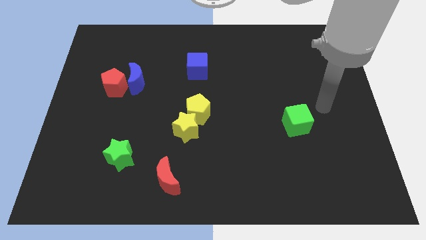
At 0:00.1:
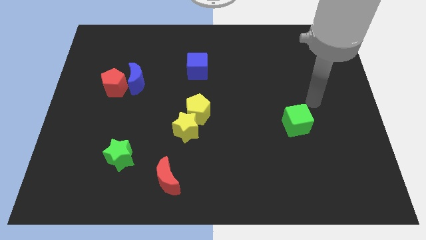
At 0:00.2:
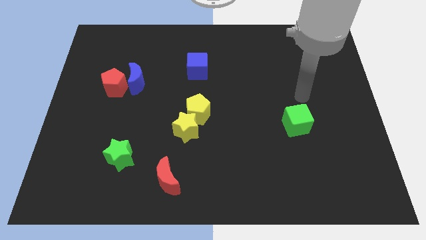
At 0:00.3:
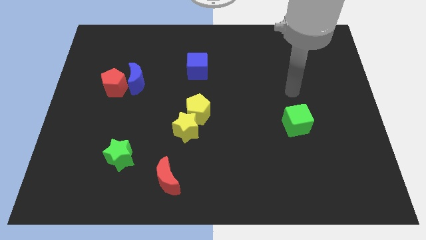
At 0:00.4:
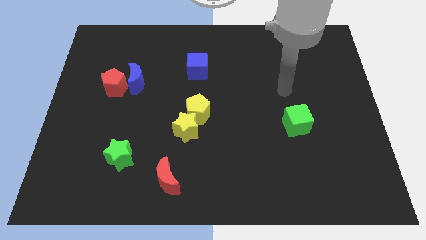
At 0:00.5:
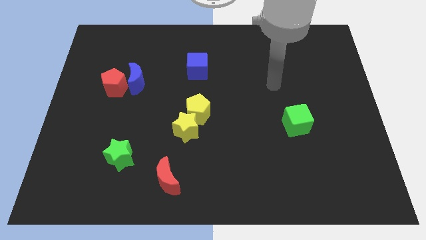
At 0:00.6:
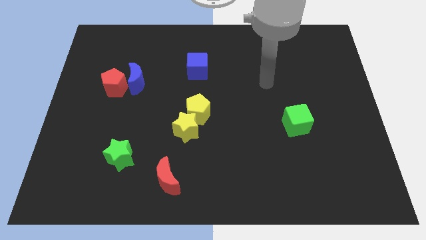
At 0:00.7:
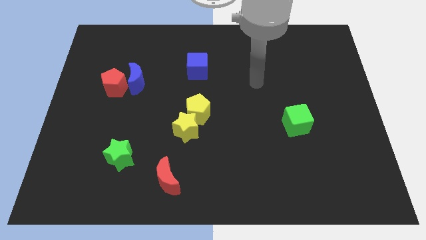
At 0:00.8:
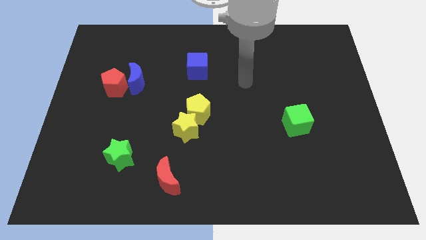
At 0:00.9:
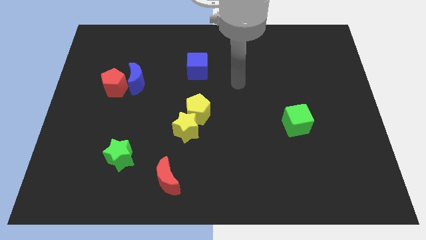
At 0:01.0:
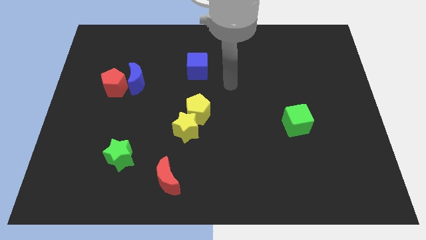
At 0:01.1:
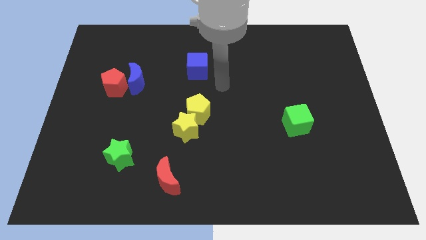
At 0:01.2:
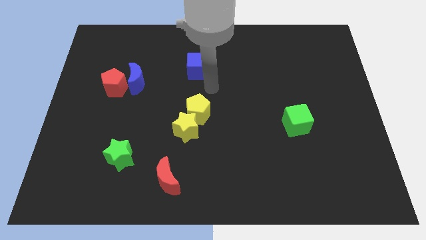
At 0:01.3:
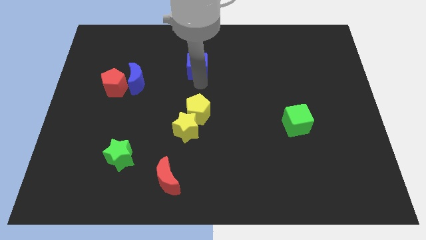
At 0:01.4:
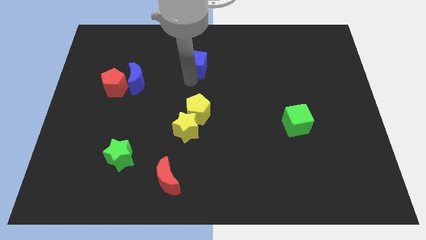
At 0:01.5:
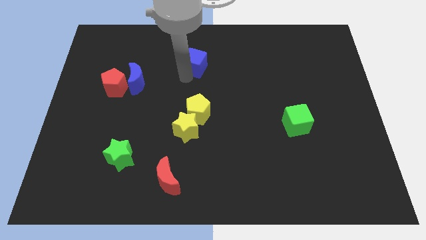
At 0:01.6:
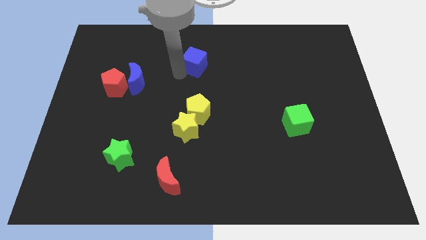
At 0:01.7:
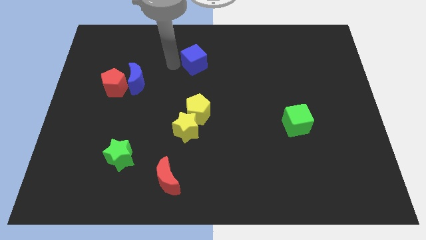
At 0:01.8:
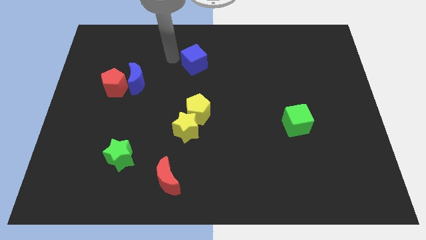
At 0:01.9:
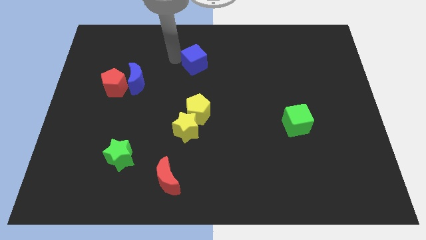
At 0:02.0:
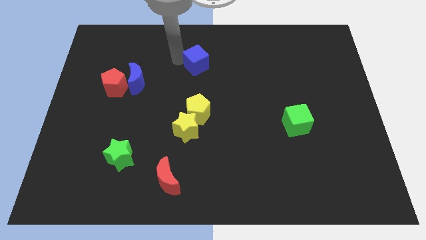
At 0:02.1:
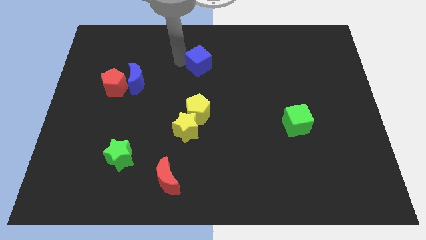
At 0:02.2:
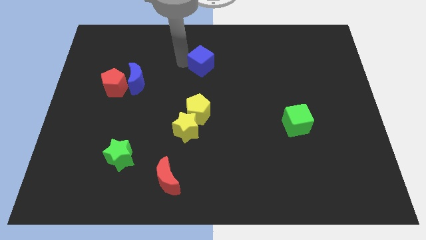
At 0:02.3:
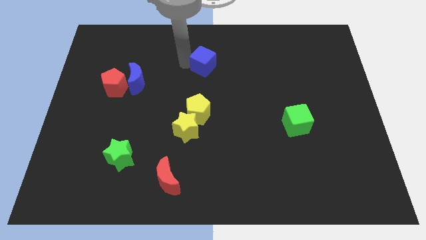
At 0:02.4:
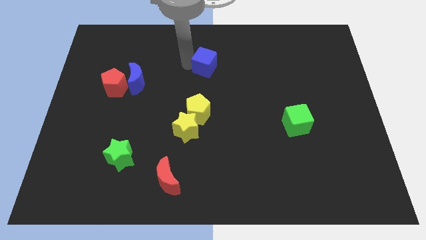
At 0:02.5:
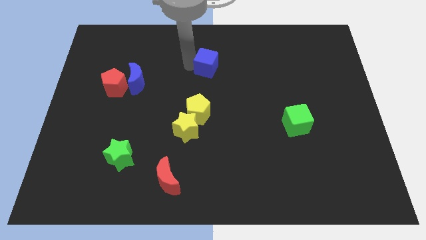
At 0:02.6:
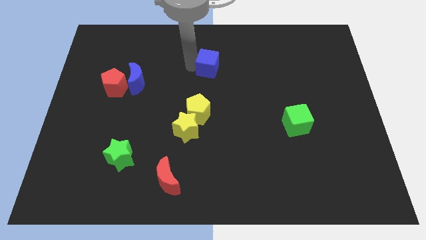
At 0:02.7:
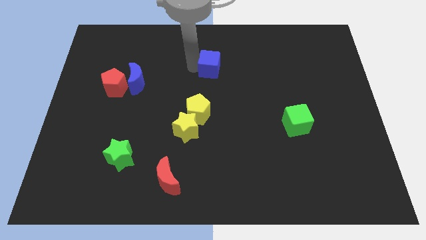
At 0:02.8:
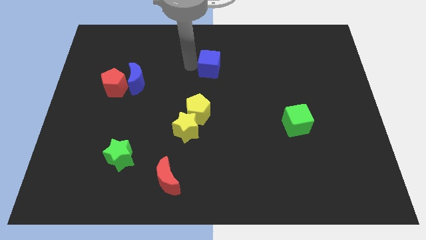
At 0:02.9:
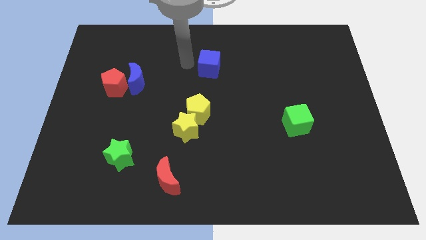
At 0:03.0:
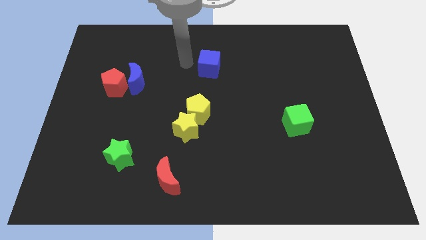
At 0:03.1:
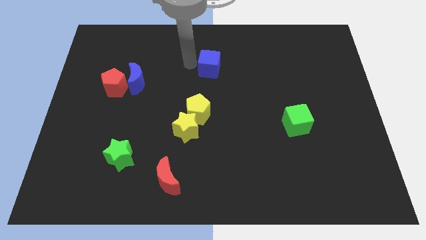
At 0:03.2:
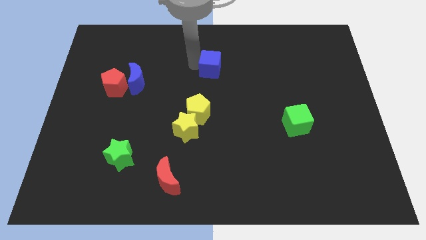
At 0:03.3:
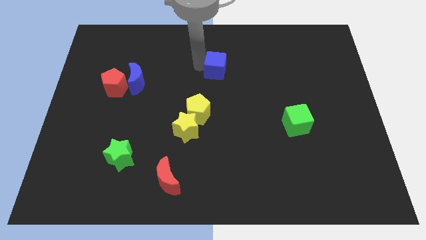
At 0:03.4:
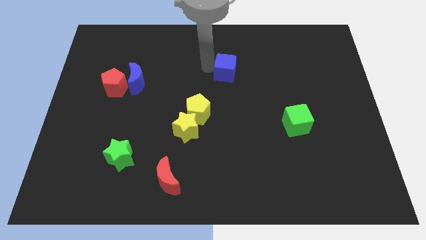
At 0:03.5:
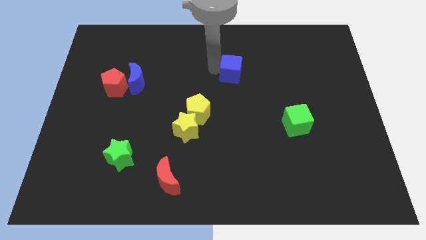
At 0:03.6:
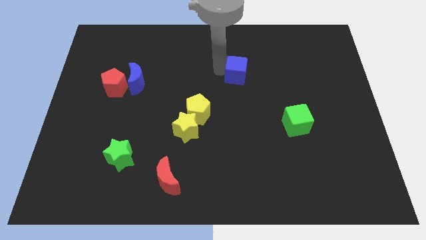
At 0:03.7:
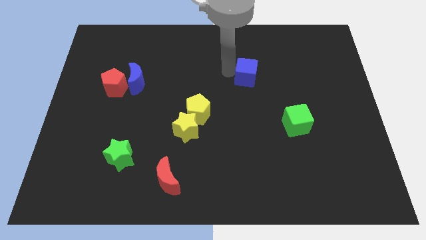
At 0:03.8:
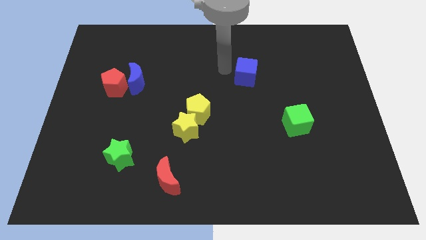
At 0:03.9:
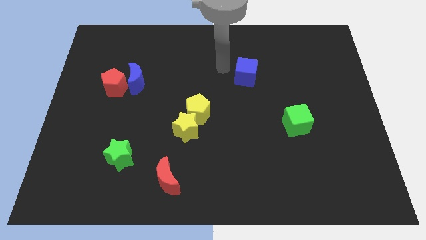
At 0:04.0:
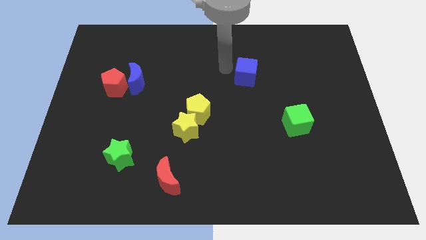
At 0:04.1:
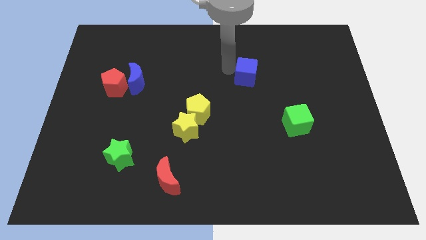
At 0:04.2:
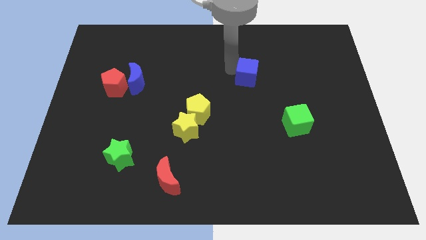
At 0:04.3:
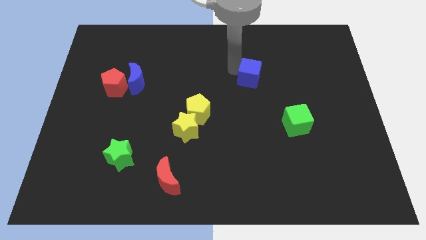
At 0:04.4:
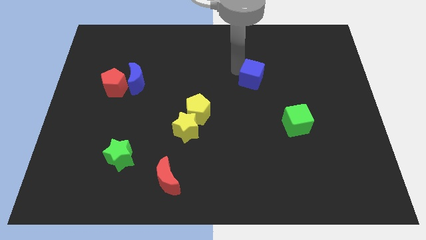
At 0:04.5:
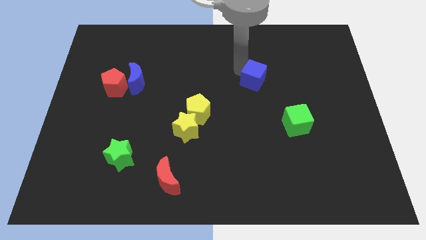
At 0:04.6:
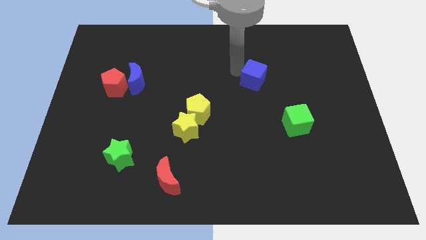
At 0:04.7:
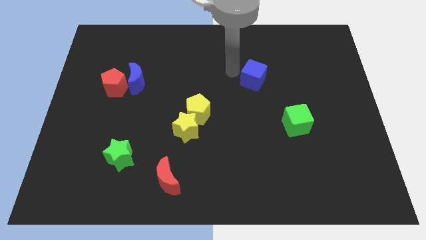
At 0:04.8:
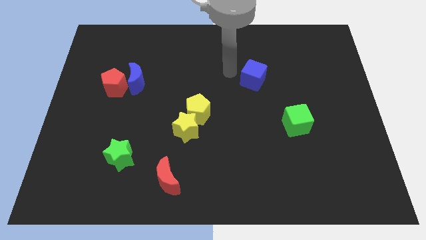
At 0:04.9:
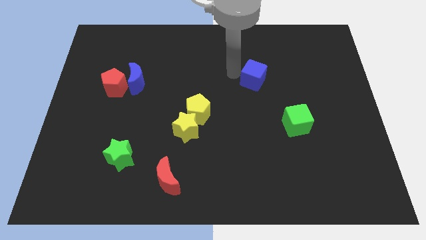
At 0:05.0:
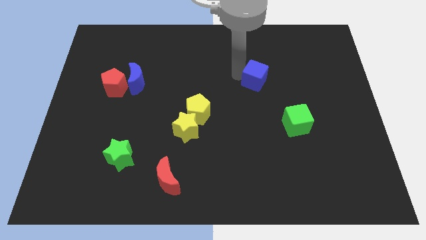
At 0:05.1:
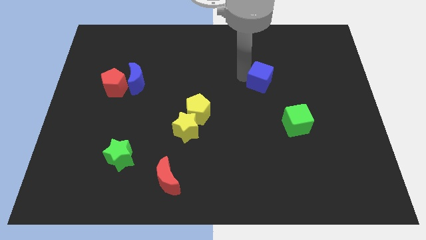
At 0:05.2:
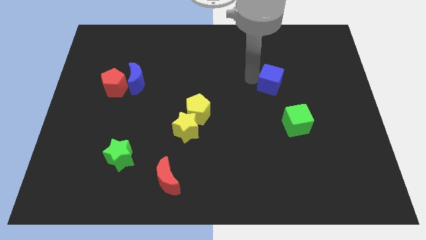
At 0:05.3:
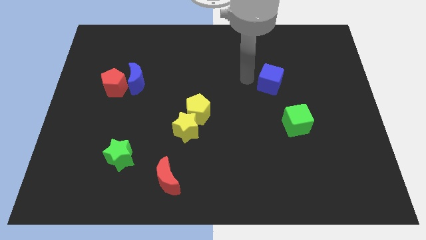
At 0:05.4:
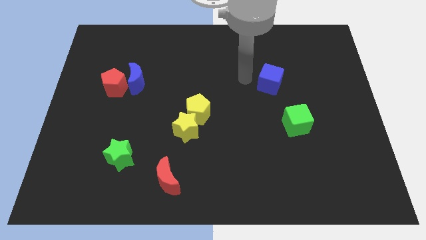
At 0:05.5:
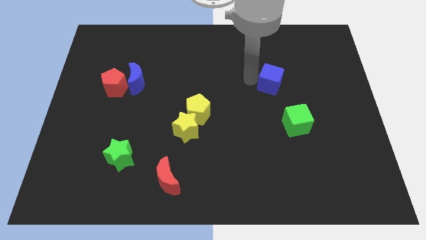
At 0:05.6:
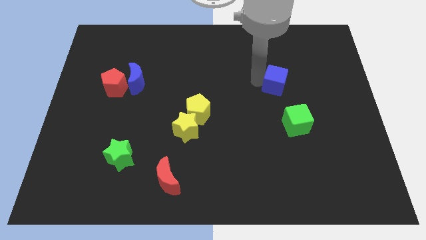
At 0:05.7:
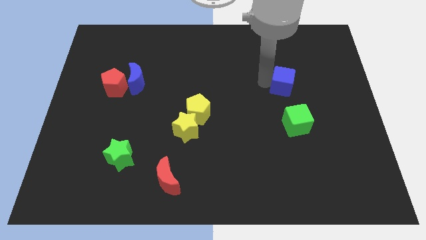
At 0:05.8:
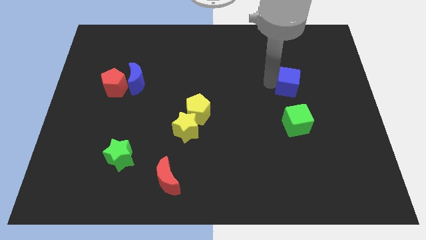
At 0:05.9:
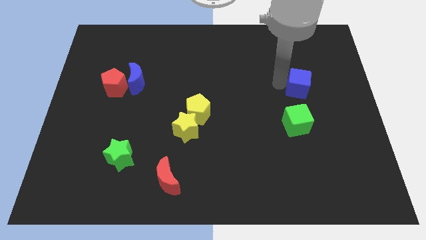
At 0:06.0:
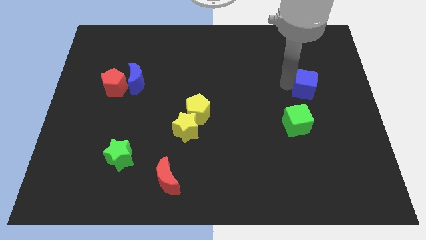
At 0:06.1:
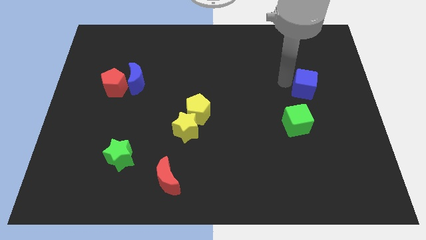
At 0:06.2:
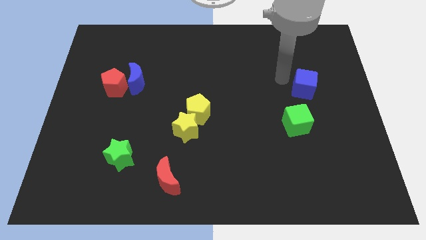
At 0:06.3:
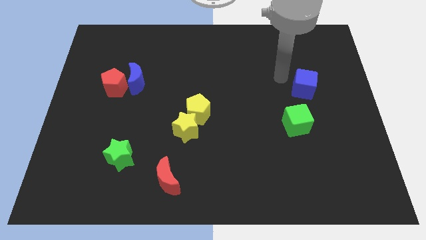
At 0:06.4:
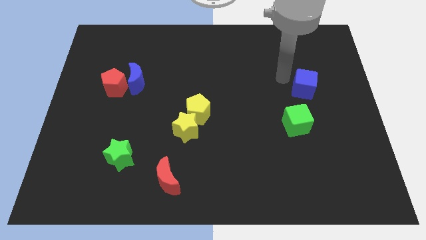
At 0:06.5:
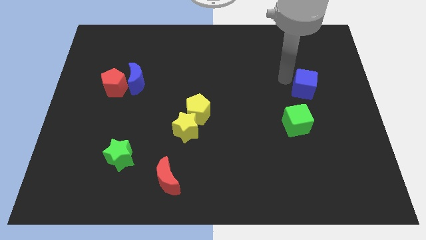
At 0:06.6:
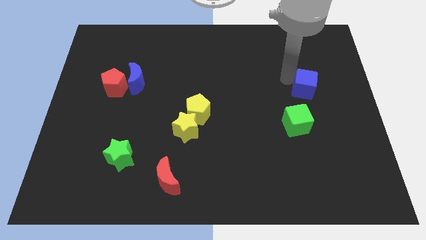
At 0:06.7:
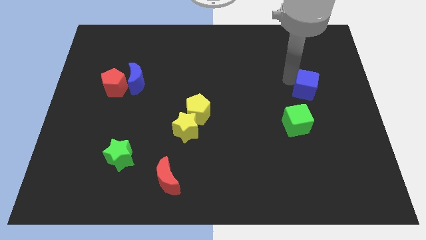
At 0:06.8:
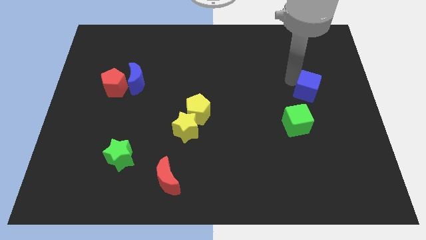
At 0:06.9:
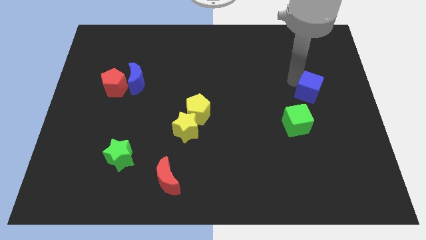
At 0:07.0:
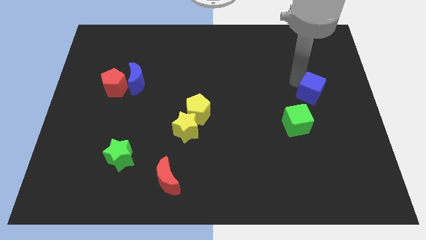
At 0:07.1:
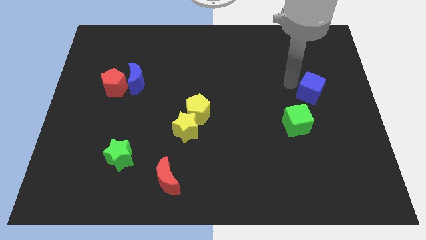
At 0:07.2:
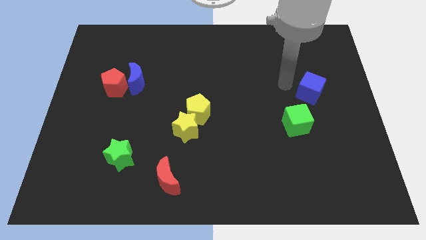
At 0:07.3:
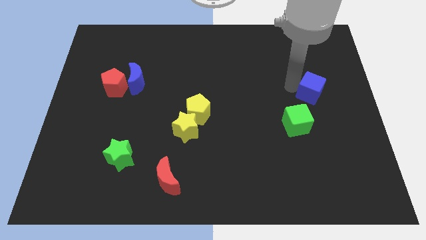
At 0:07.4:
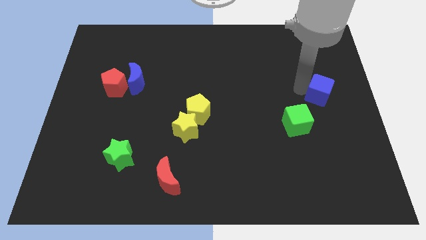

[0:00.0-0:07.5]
put the blue cube to the right side of the board
